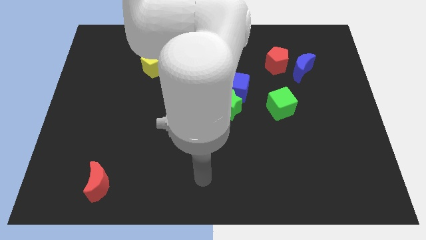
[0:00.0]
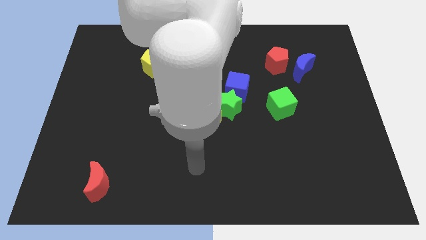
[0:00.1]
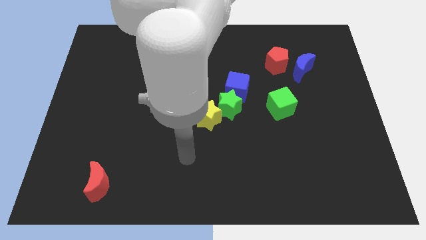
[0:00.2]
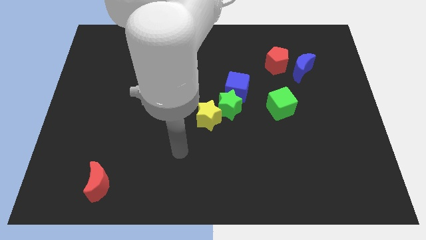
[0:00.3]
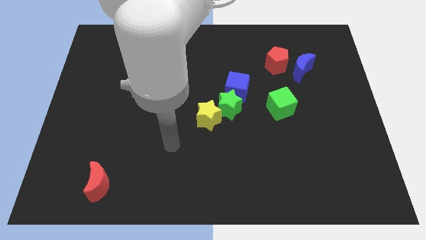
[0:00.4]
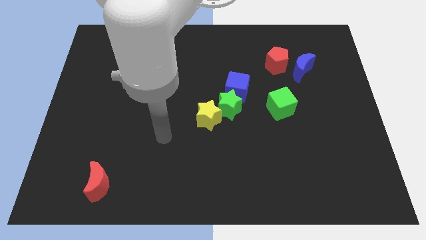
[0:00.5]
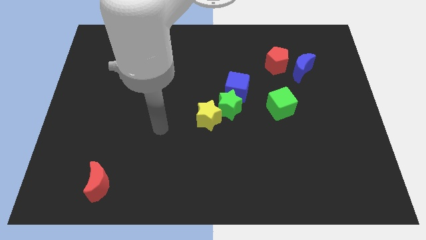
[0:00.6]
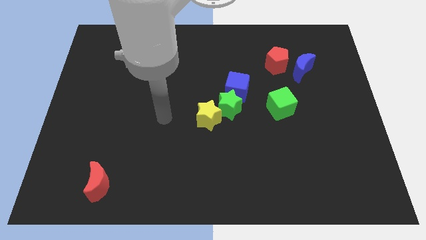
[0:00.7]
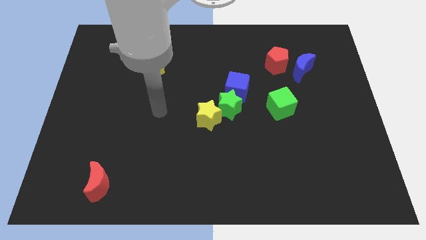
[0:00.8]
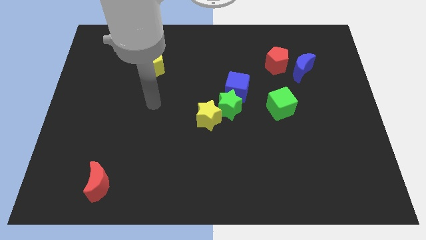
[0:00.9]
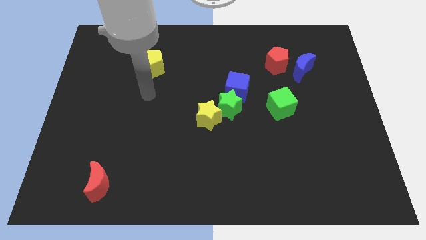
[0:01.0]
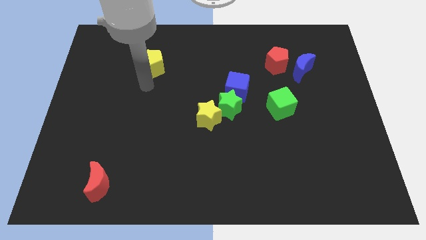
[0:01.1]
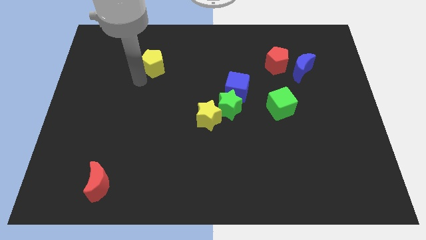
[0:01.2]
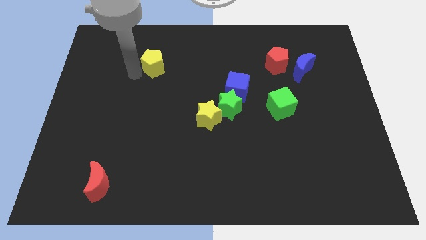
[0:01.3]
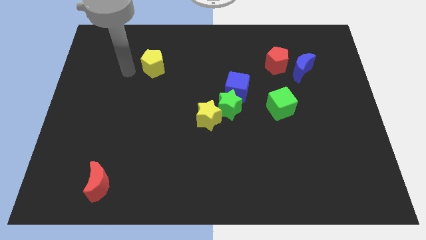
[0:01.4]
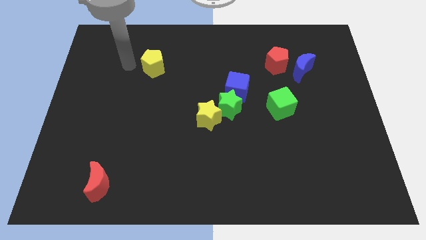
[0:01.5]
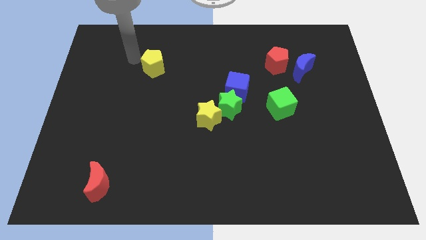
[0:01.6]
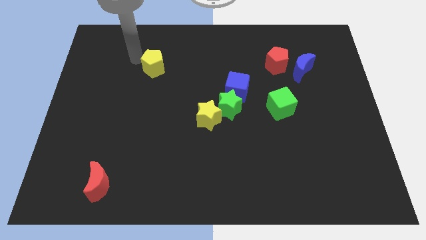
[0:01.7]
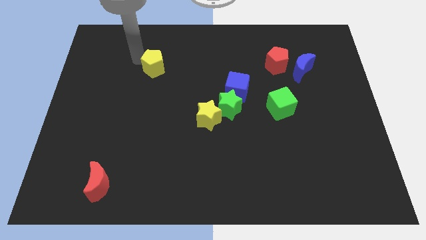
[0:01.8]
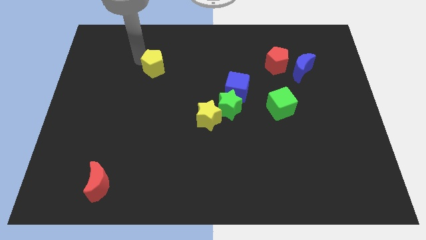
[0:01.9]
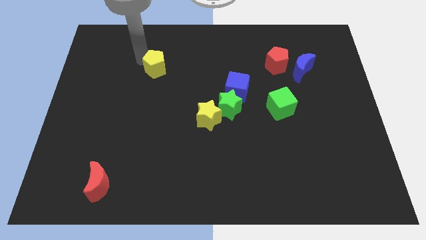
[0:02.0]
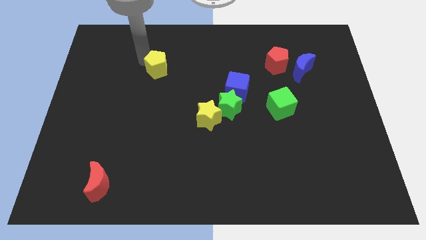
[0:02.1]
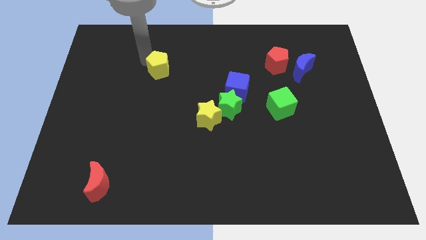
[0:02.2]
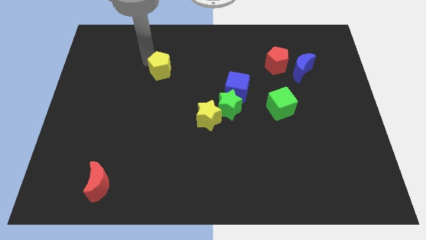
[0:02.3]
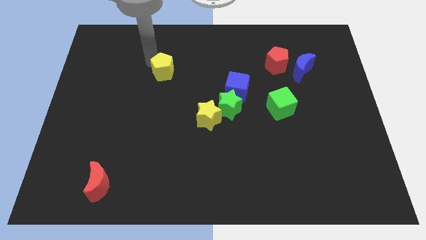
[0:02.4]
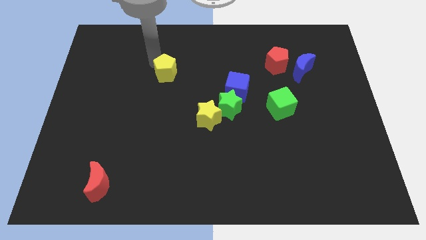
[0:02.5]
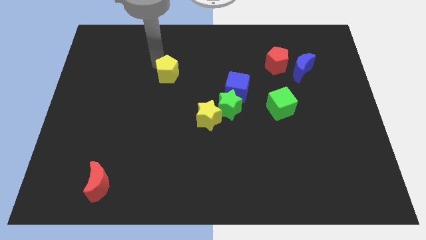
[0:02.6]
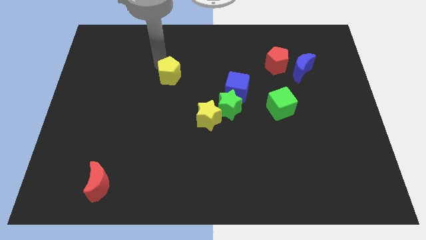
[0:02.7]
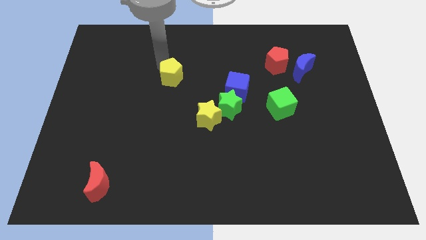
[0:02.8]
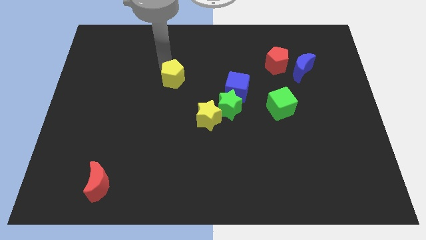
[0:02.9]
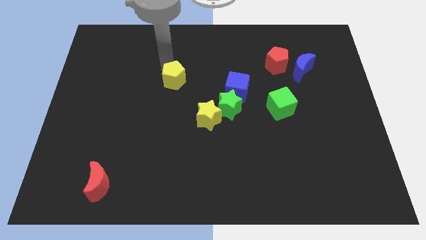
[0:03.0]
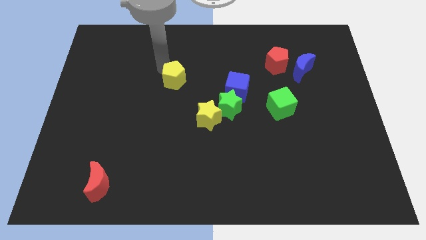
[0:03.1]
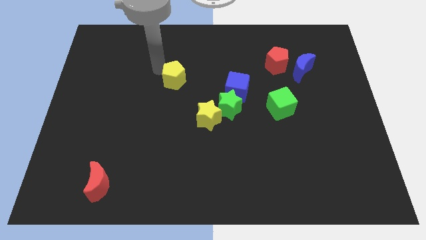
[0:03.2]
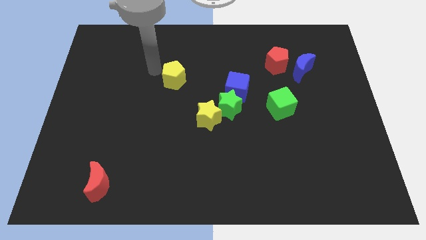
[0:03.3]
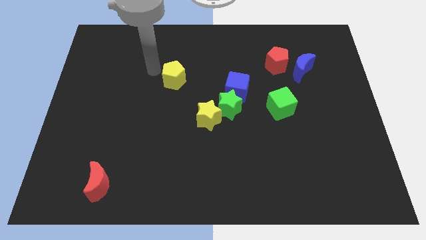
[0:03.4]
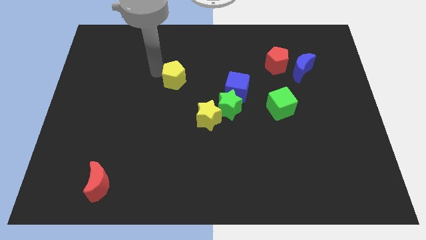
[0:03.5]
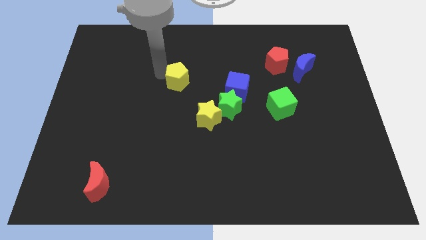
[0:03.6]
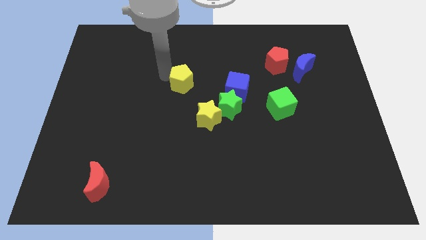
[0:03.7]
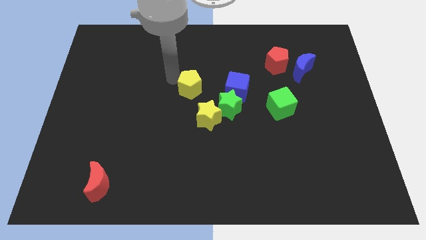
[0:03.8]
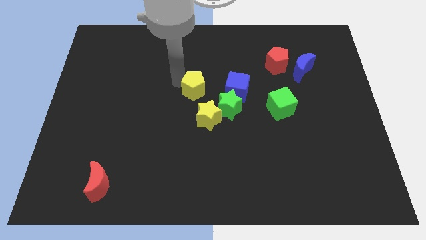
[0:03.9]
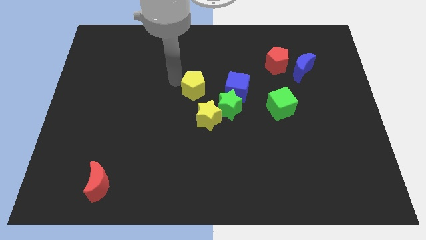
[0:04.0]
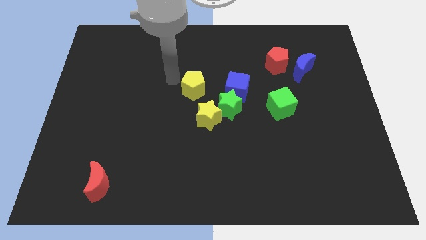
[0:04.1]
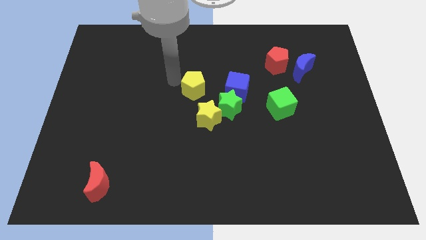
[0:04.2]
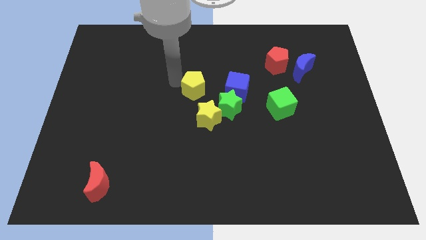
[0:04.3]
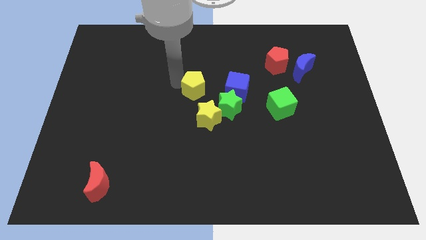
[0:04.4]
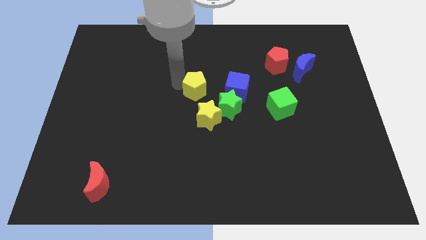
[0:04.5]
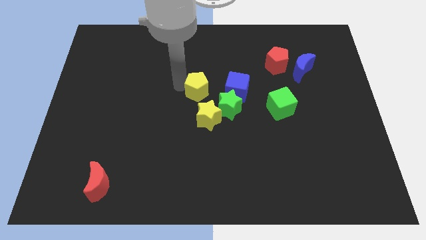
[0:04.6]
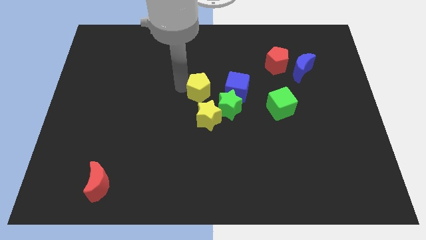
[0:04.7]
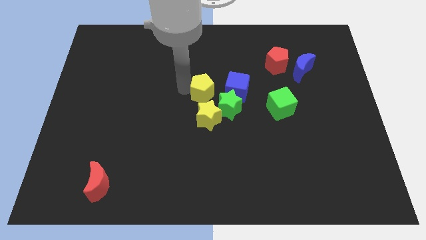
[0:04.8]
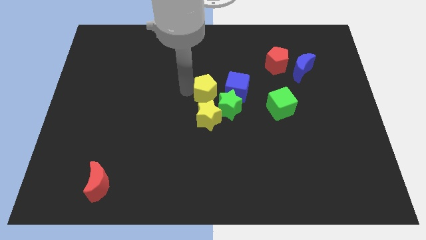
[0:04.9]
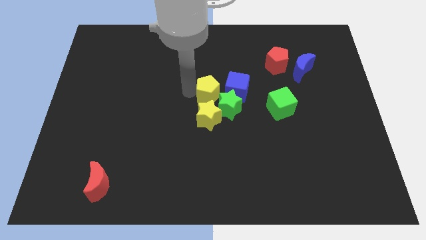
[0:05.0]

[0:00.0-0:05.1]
move the yellow pentagon close to the green star

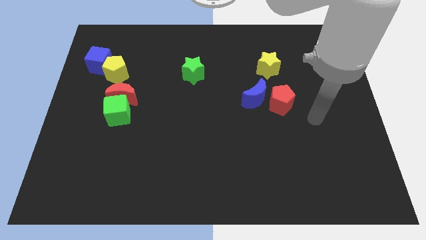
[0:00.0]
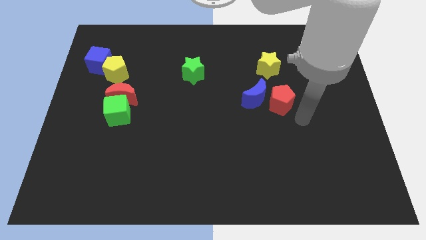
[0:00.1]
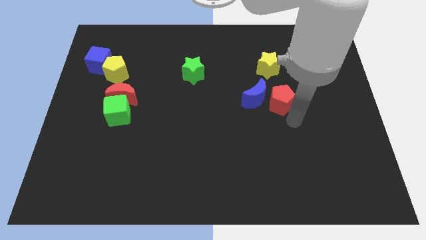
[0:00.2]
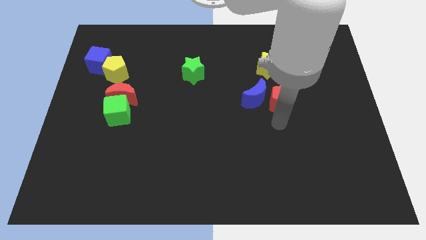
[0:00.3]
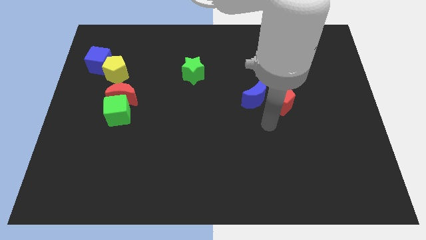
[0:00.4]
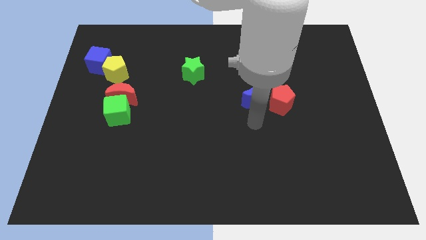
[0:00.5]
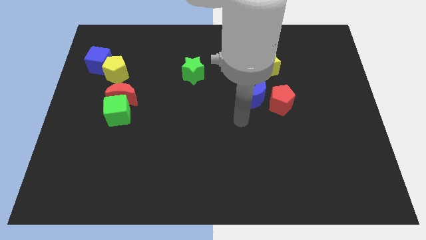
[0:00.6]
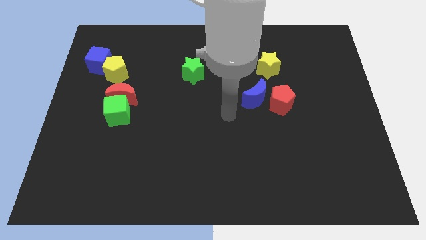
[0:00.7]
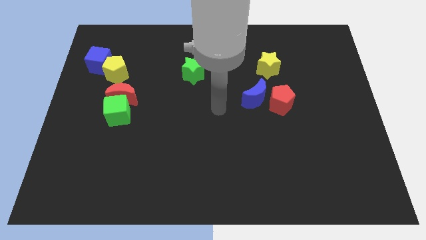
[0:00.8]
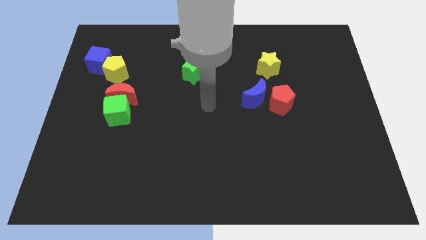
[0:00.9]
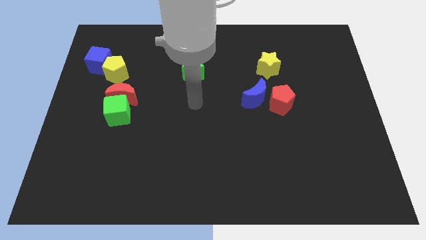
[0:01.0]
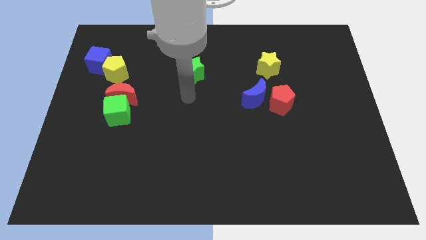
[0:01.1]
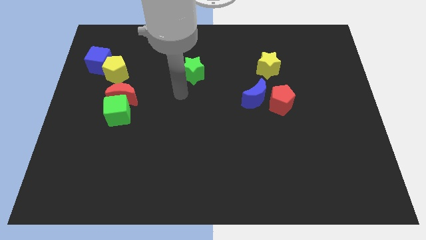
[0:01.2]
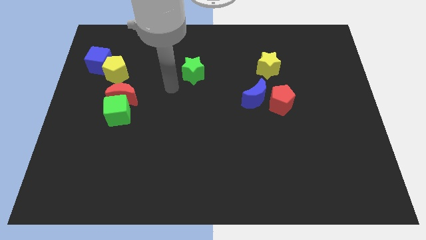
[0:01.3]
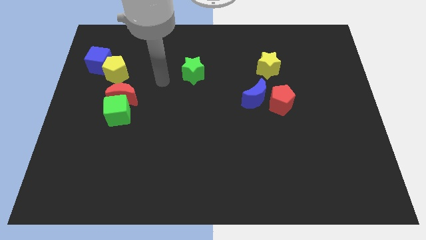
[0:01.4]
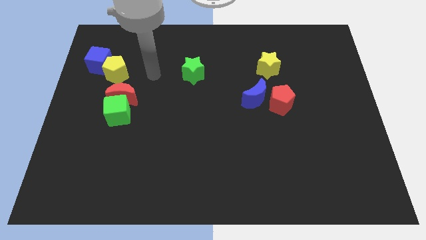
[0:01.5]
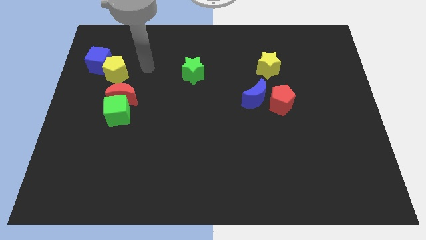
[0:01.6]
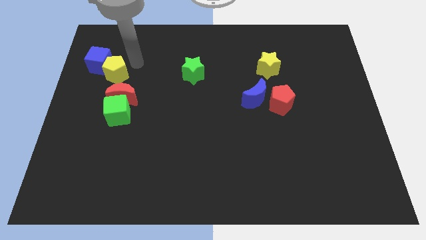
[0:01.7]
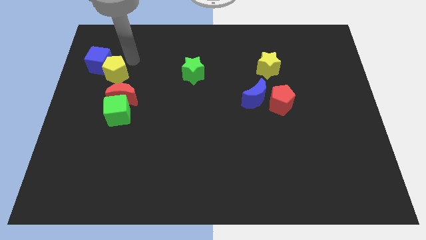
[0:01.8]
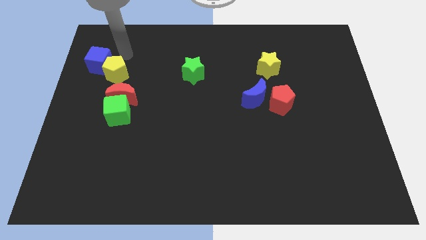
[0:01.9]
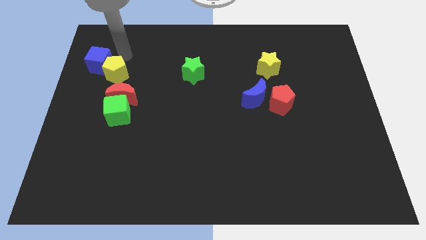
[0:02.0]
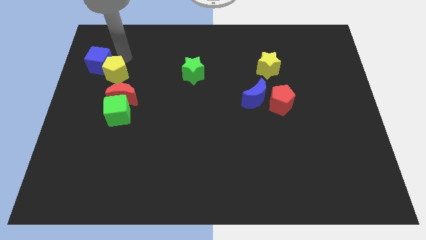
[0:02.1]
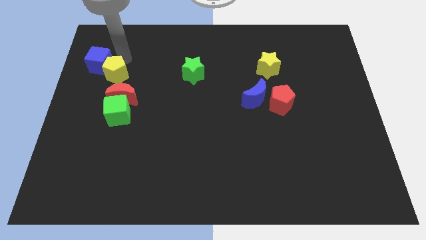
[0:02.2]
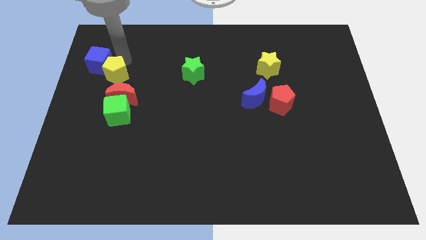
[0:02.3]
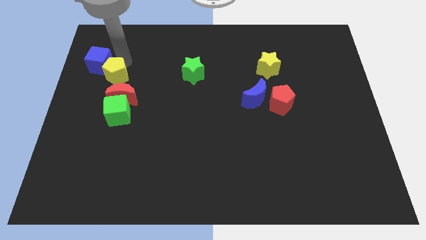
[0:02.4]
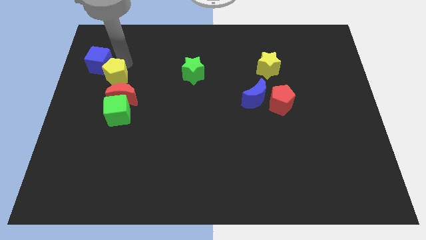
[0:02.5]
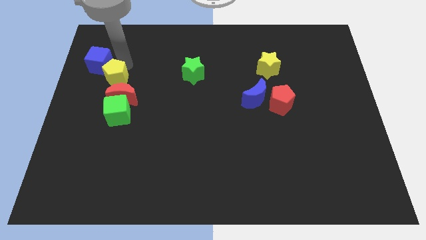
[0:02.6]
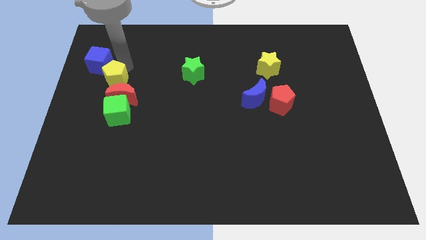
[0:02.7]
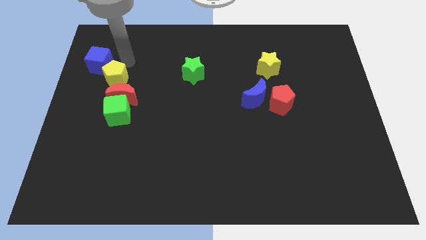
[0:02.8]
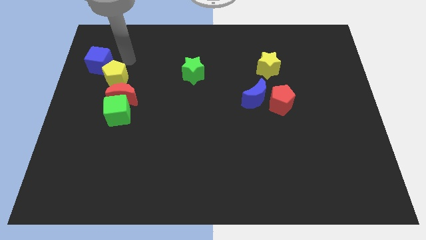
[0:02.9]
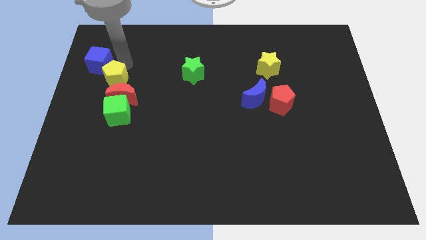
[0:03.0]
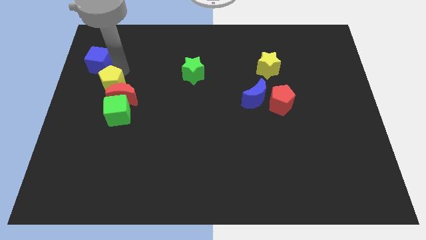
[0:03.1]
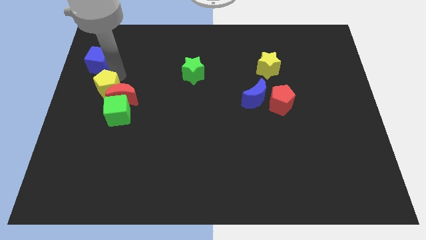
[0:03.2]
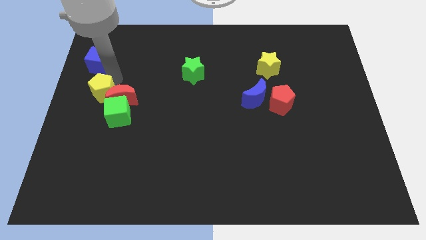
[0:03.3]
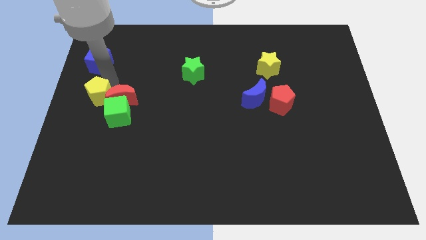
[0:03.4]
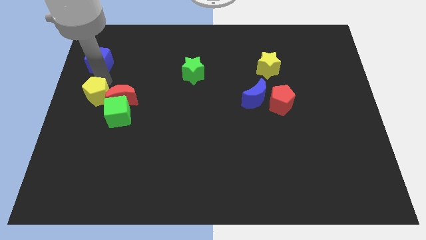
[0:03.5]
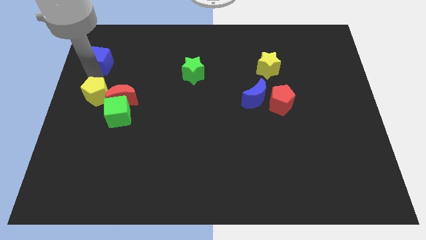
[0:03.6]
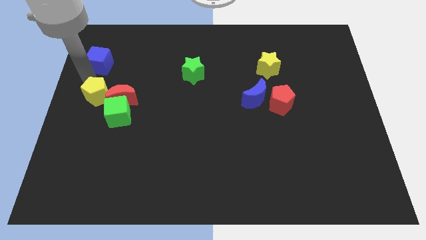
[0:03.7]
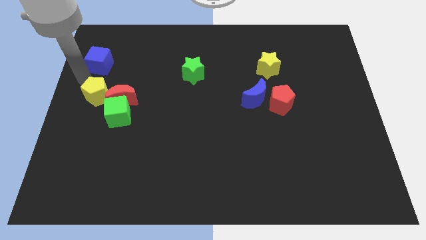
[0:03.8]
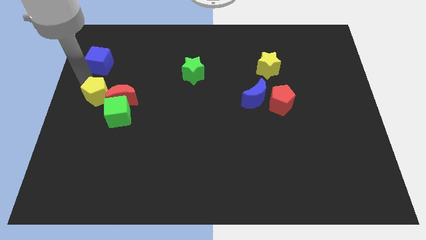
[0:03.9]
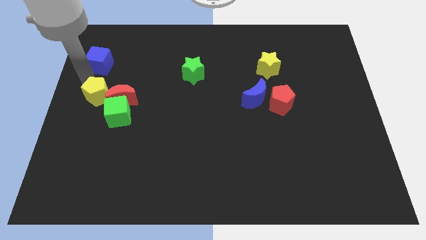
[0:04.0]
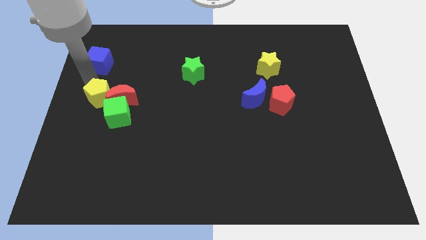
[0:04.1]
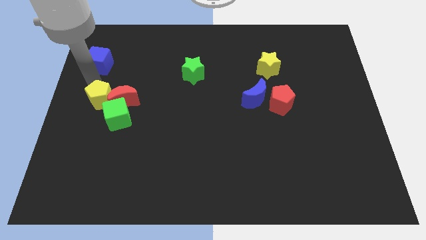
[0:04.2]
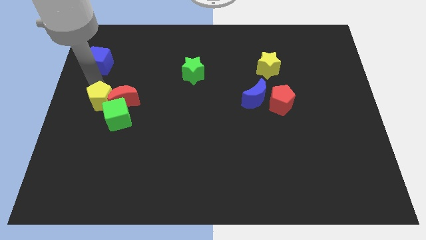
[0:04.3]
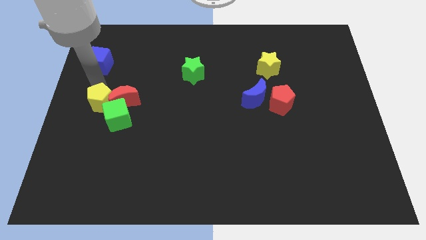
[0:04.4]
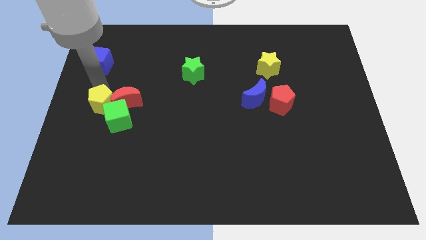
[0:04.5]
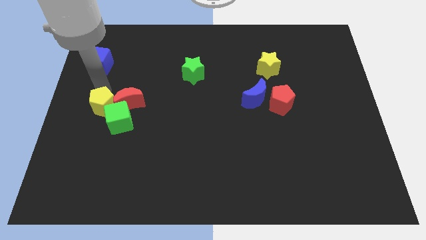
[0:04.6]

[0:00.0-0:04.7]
put the yellow pentagon to the green cube
